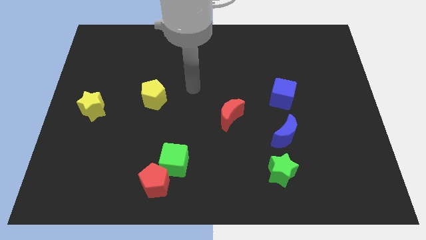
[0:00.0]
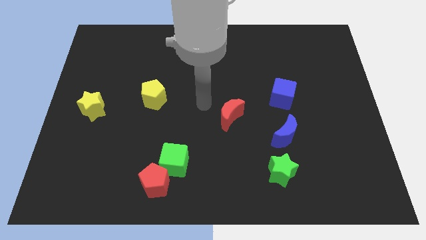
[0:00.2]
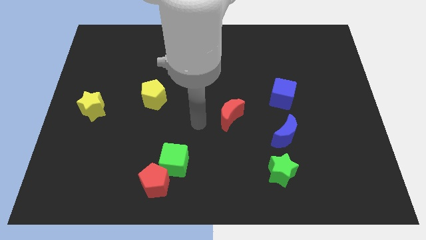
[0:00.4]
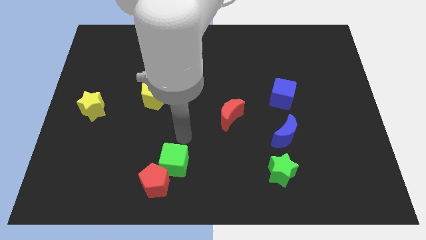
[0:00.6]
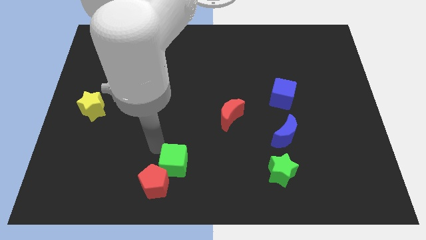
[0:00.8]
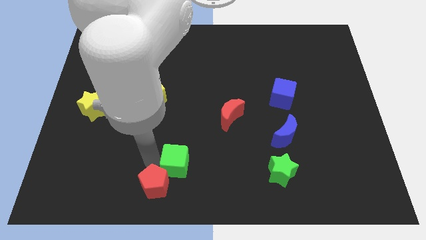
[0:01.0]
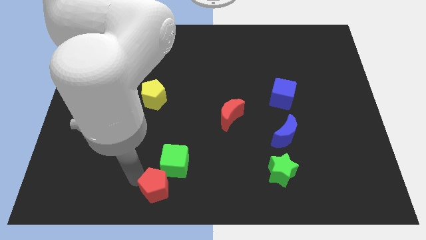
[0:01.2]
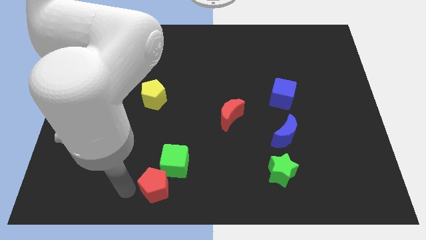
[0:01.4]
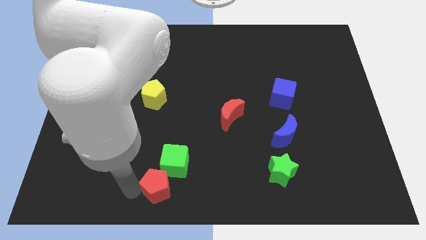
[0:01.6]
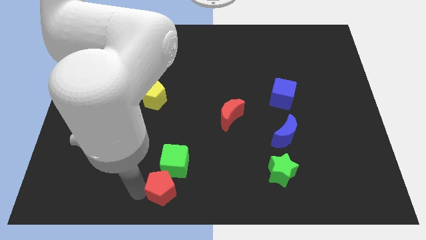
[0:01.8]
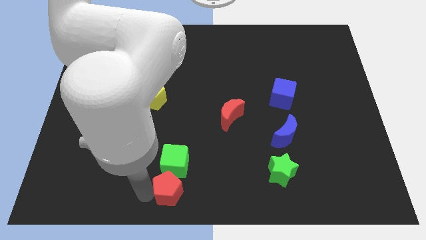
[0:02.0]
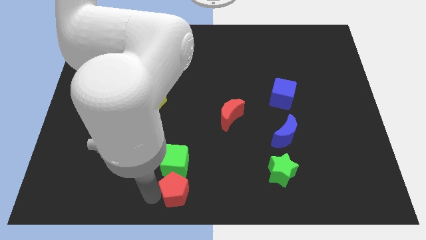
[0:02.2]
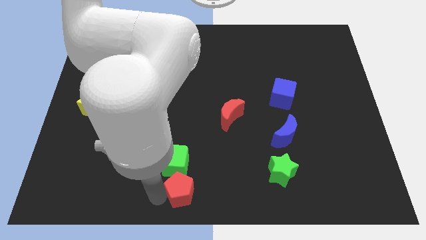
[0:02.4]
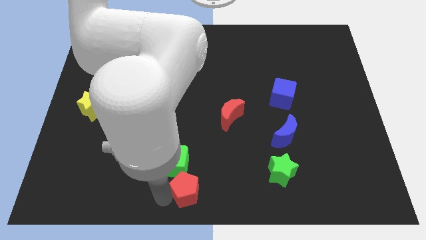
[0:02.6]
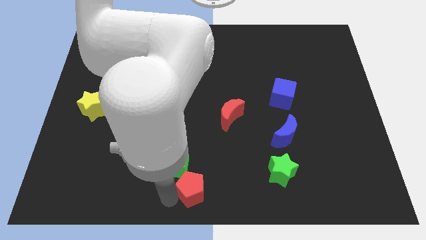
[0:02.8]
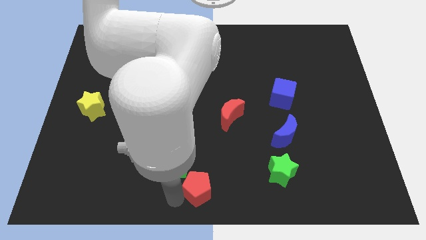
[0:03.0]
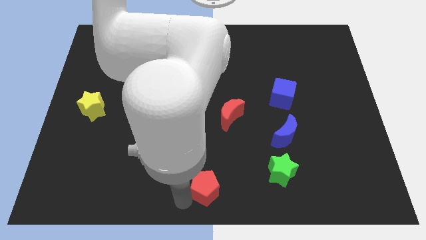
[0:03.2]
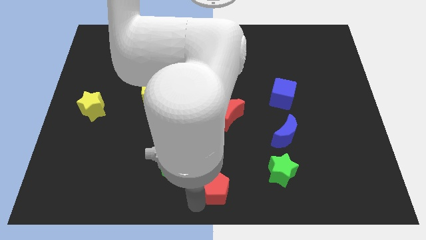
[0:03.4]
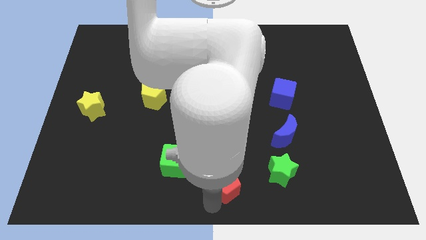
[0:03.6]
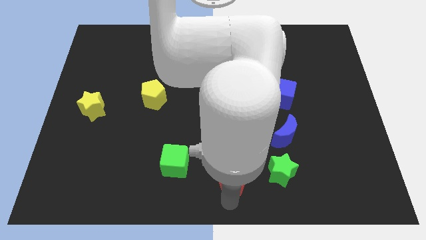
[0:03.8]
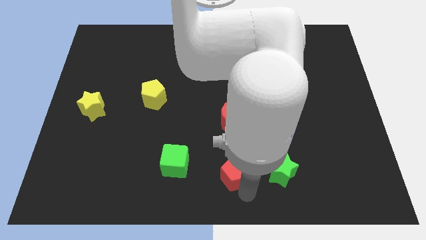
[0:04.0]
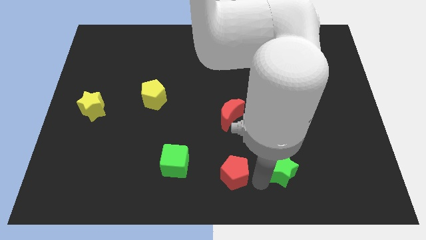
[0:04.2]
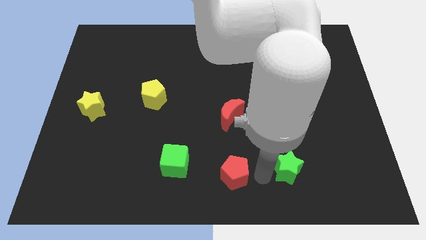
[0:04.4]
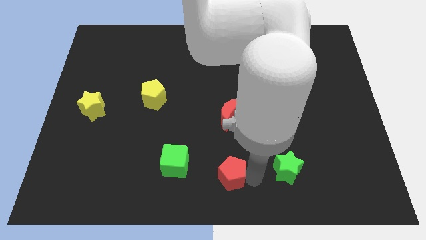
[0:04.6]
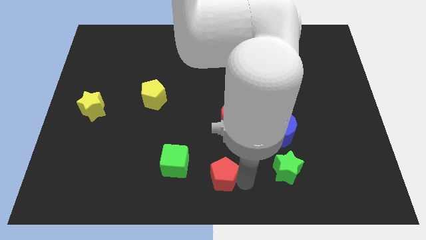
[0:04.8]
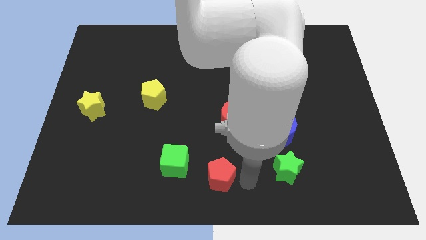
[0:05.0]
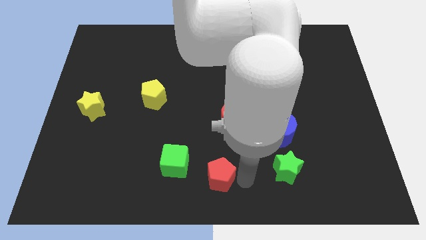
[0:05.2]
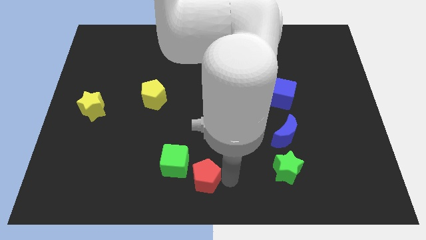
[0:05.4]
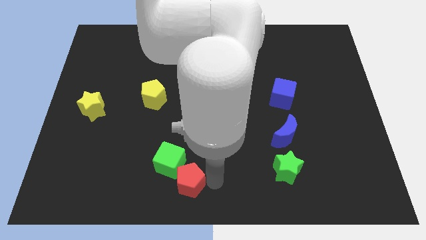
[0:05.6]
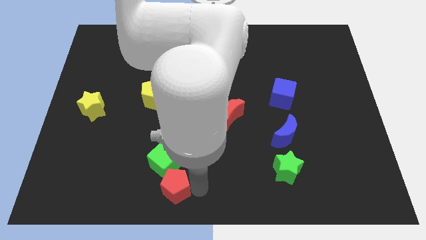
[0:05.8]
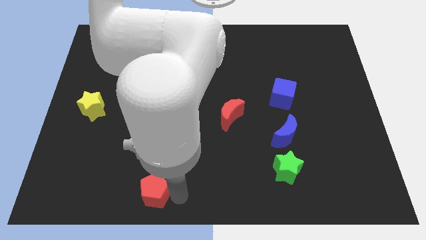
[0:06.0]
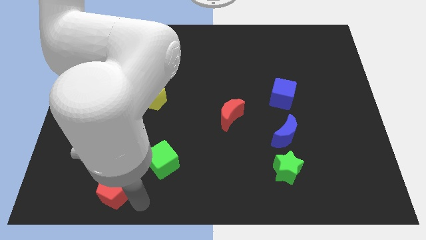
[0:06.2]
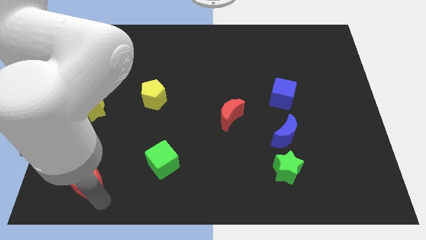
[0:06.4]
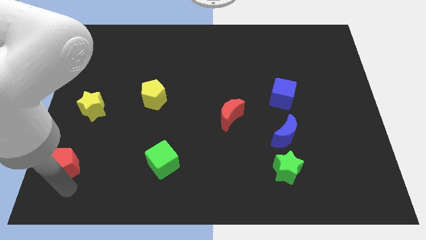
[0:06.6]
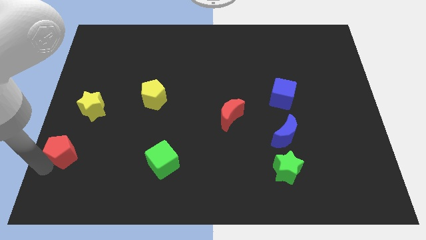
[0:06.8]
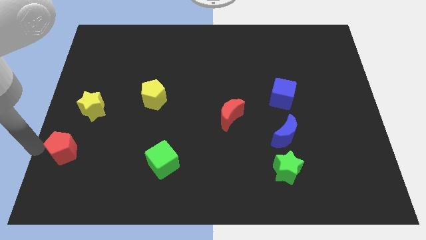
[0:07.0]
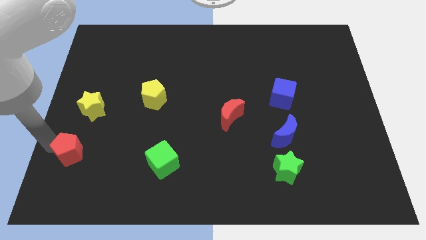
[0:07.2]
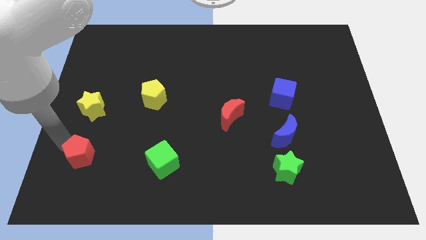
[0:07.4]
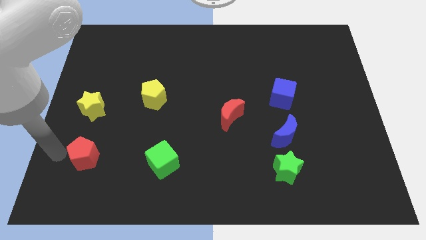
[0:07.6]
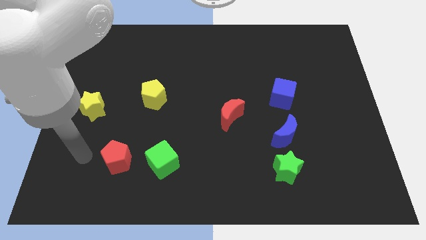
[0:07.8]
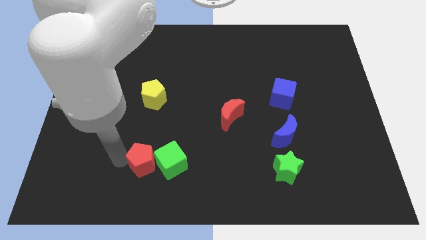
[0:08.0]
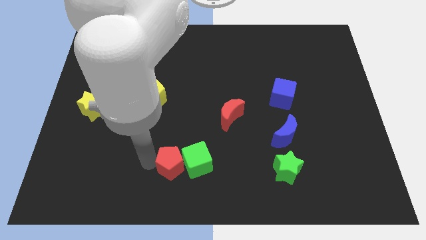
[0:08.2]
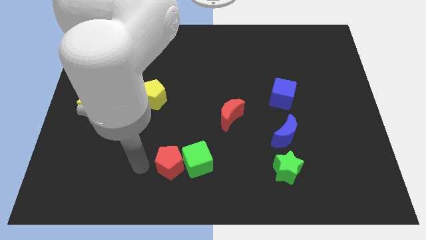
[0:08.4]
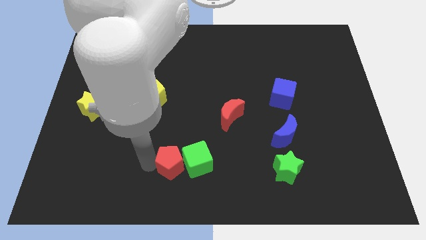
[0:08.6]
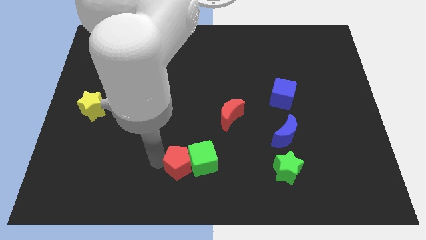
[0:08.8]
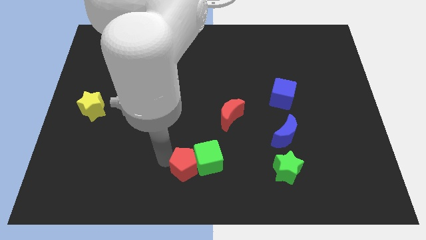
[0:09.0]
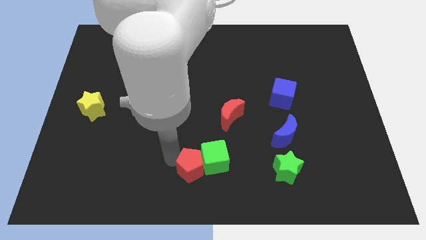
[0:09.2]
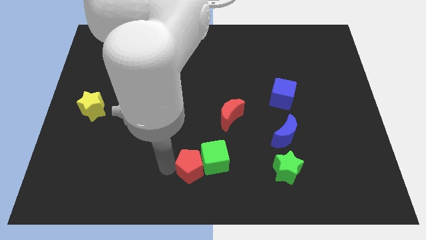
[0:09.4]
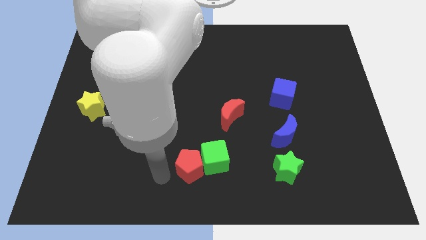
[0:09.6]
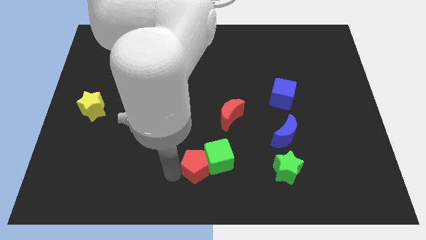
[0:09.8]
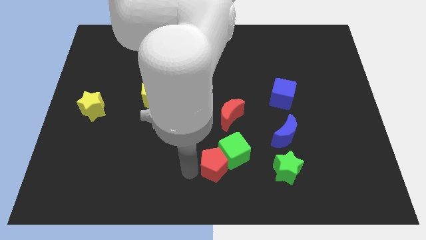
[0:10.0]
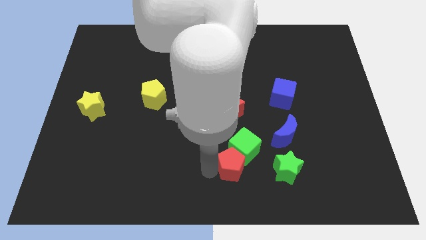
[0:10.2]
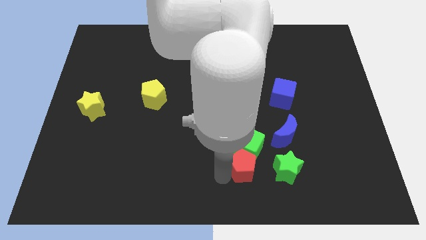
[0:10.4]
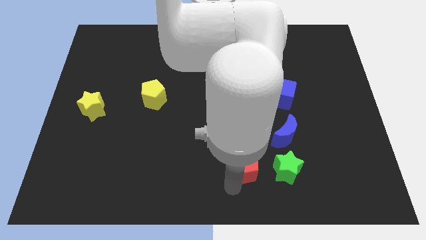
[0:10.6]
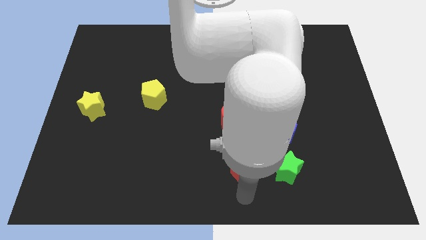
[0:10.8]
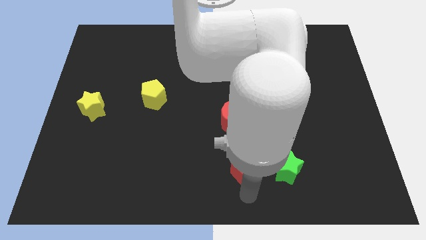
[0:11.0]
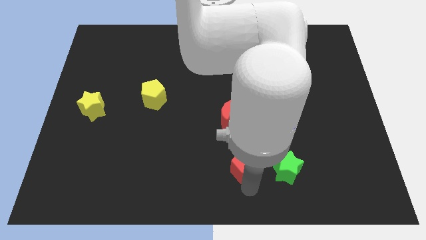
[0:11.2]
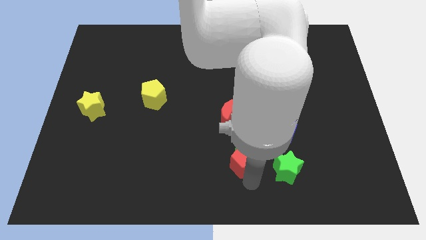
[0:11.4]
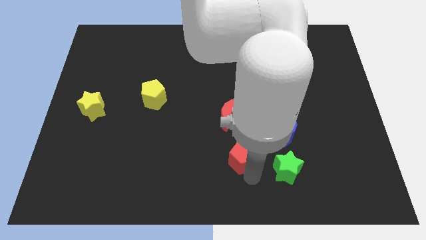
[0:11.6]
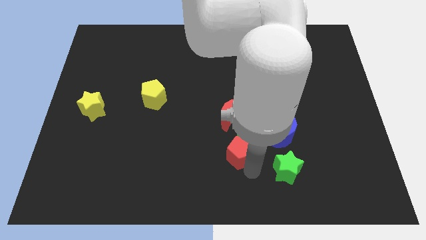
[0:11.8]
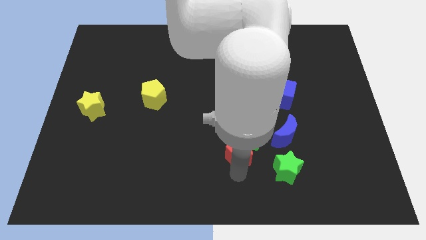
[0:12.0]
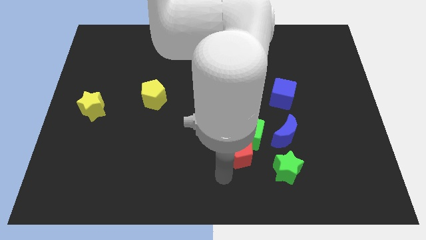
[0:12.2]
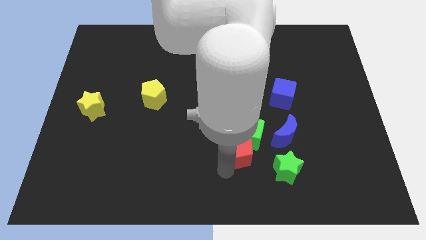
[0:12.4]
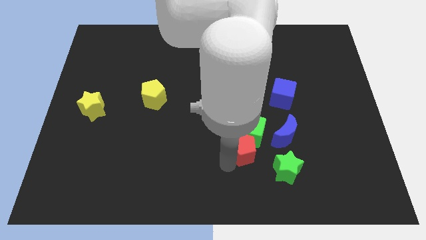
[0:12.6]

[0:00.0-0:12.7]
move the red pentagon to the bottom right side of the red moon

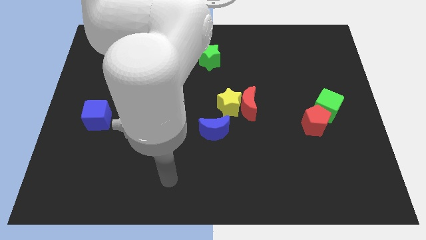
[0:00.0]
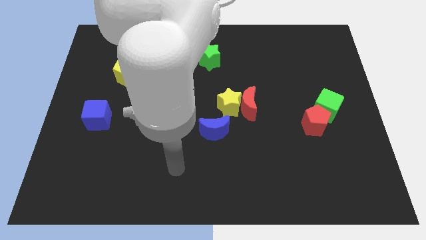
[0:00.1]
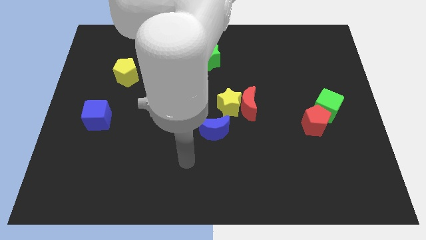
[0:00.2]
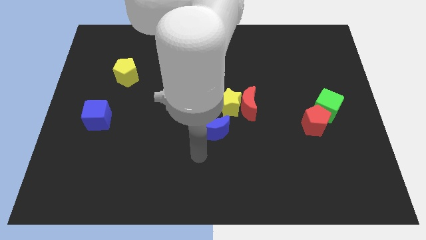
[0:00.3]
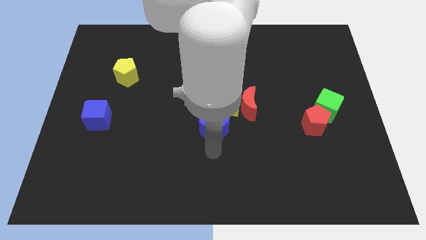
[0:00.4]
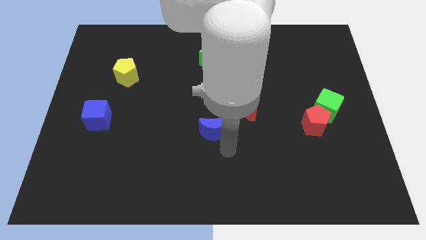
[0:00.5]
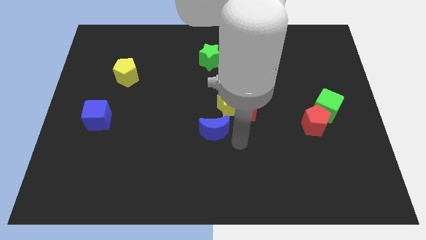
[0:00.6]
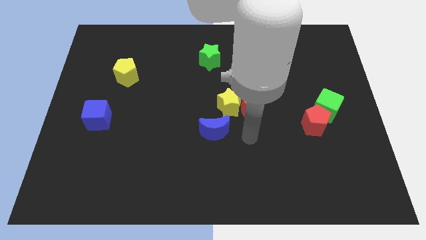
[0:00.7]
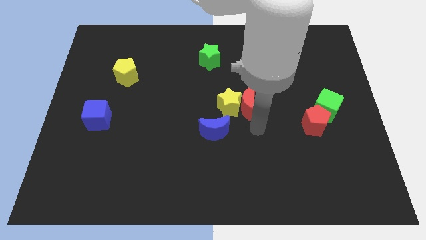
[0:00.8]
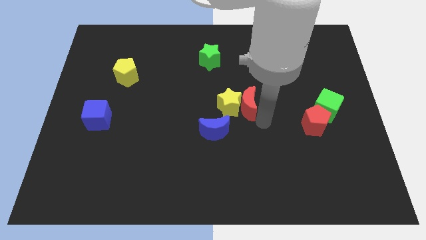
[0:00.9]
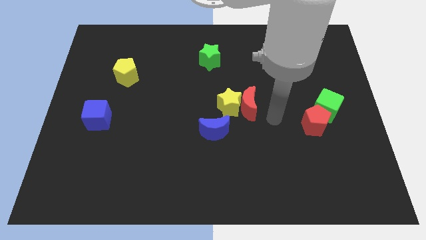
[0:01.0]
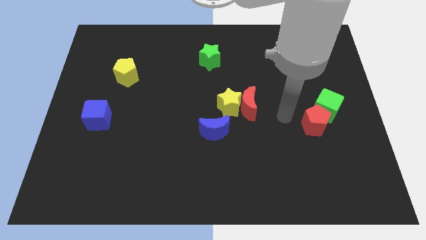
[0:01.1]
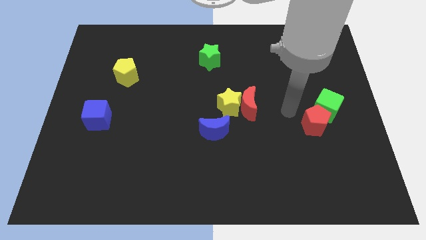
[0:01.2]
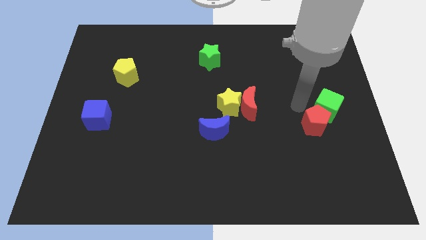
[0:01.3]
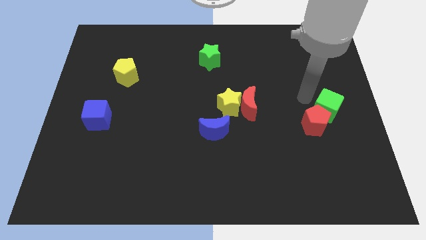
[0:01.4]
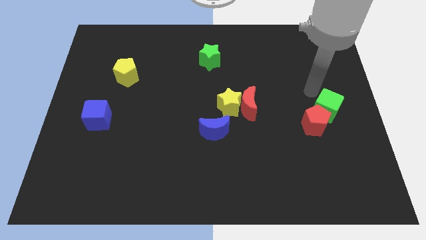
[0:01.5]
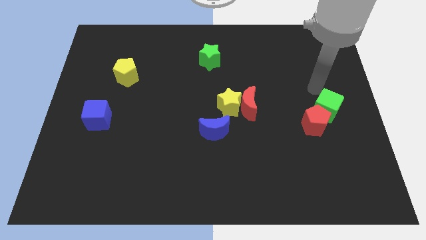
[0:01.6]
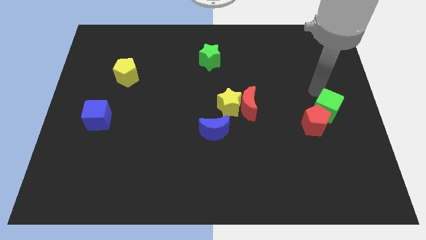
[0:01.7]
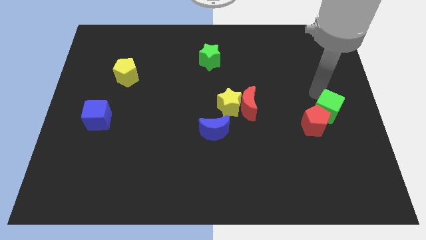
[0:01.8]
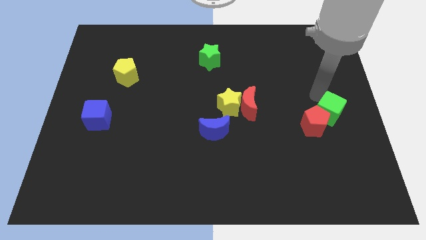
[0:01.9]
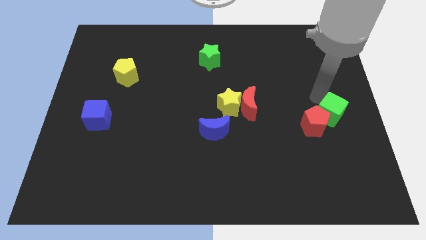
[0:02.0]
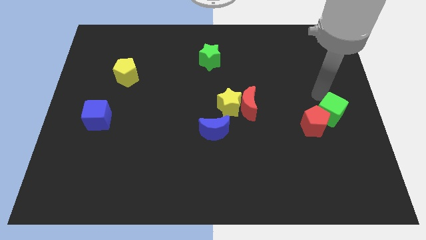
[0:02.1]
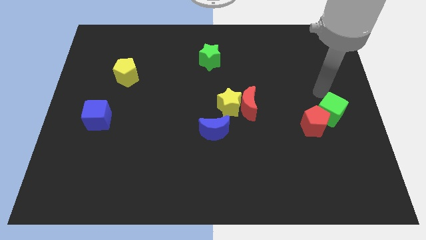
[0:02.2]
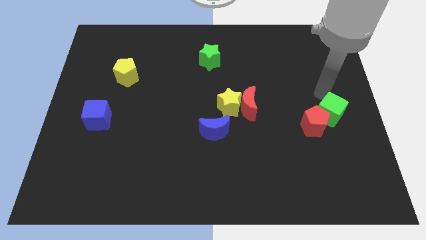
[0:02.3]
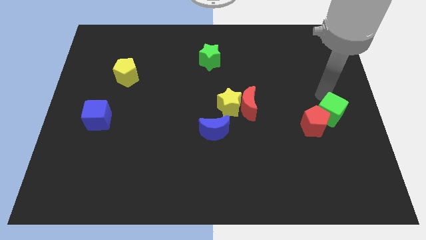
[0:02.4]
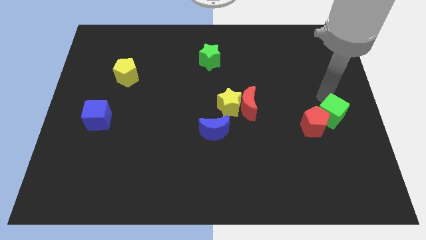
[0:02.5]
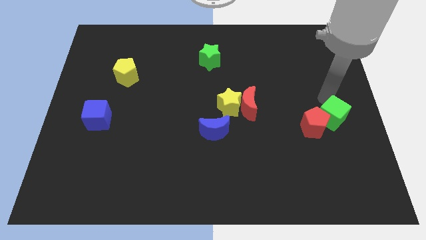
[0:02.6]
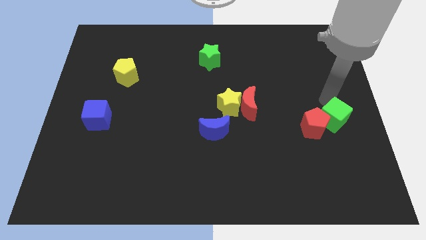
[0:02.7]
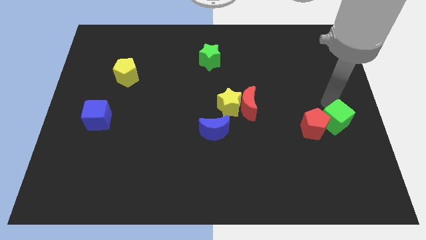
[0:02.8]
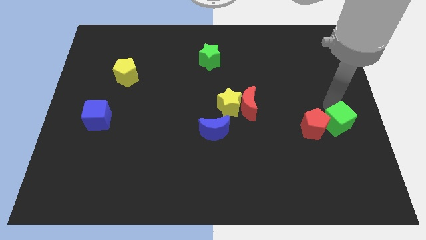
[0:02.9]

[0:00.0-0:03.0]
move the green cube diagonally down and to the right of the red pentagon
